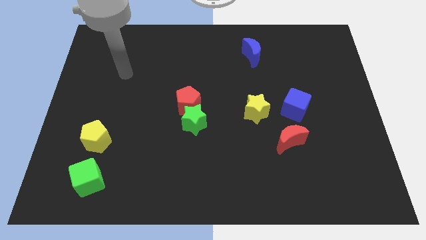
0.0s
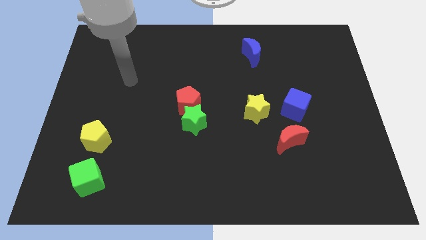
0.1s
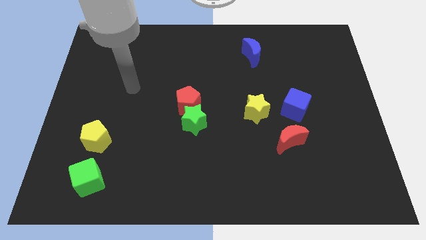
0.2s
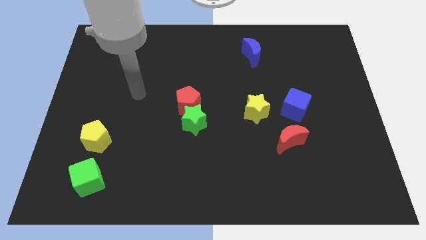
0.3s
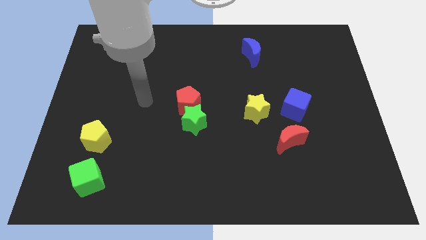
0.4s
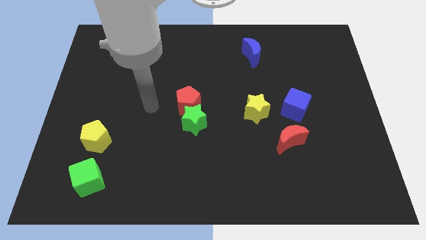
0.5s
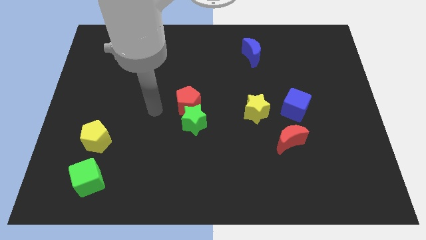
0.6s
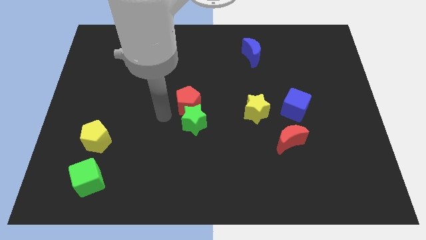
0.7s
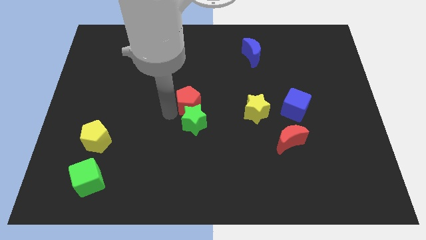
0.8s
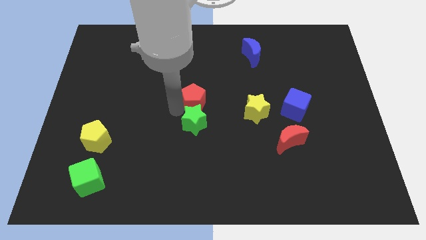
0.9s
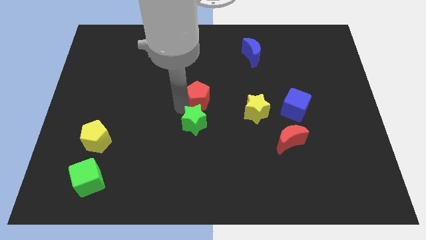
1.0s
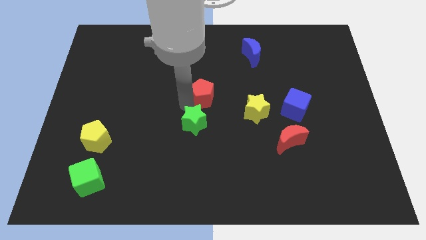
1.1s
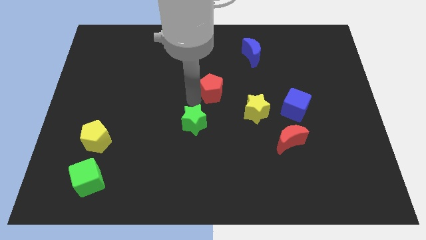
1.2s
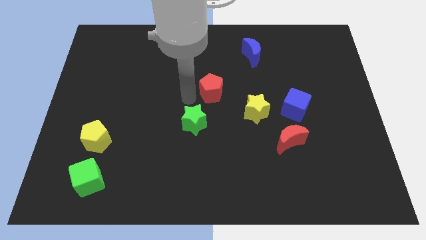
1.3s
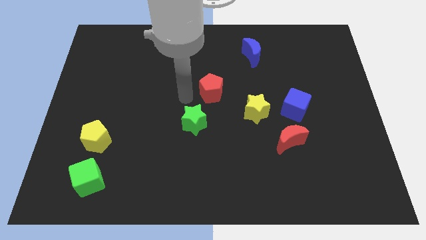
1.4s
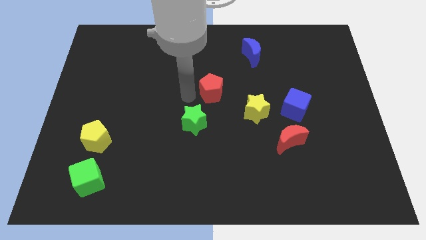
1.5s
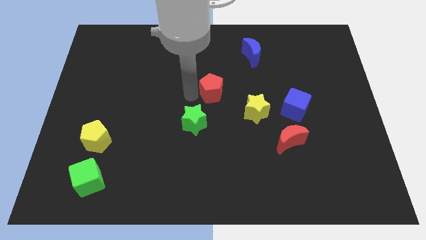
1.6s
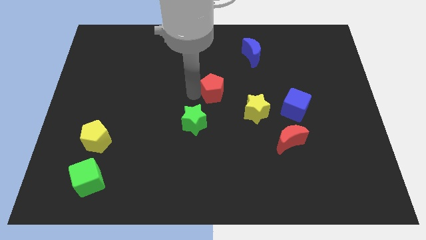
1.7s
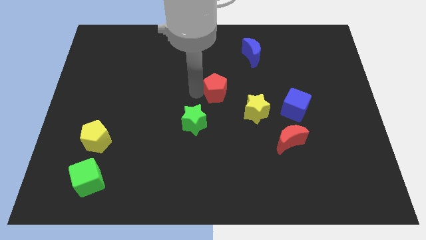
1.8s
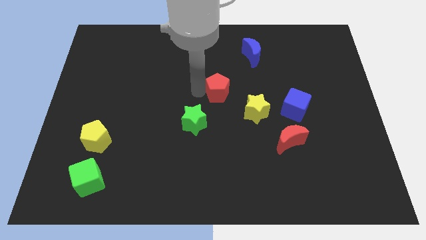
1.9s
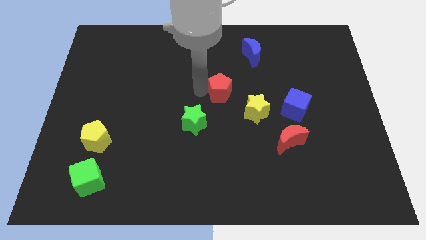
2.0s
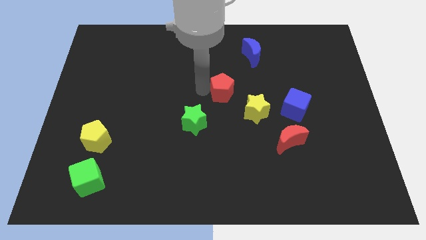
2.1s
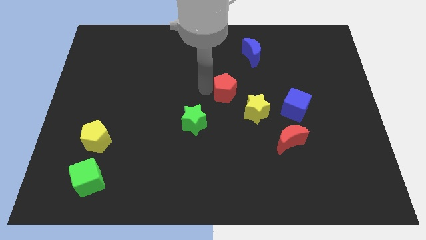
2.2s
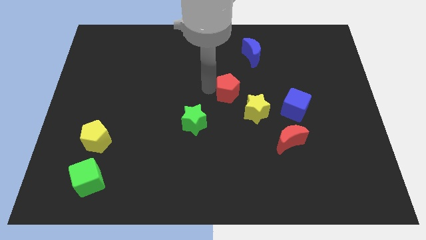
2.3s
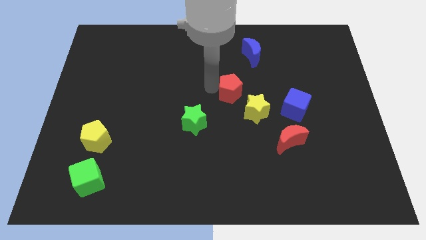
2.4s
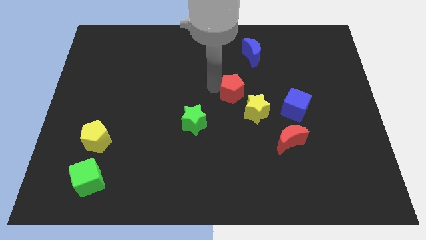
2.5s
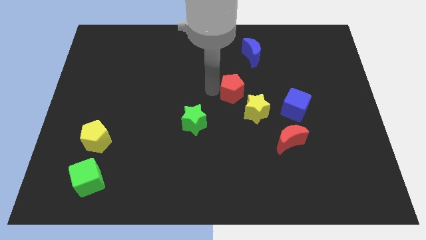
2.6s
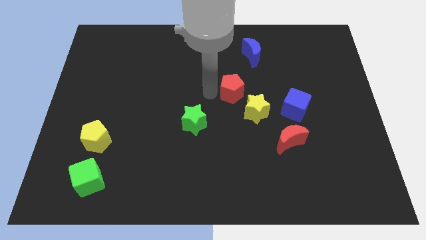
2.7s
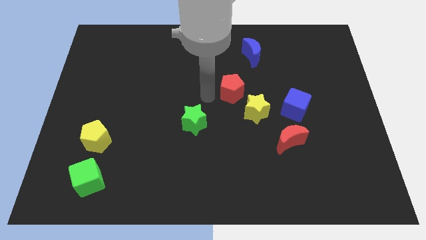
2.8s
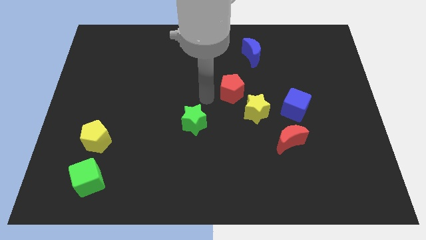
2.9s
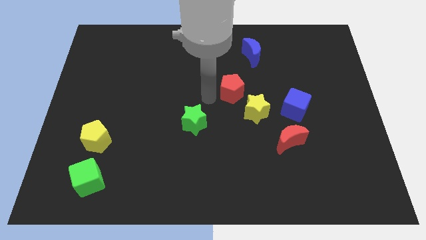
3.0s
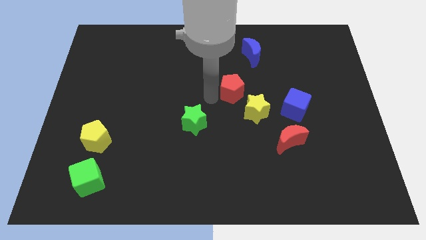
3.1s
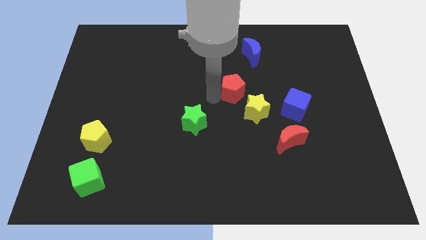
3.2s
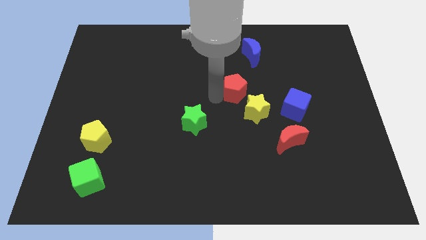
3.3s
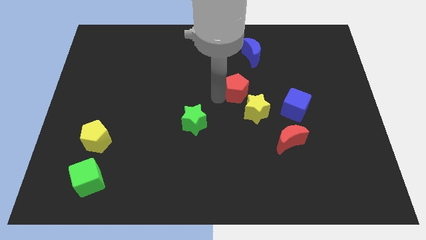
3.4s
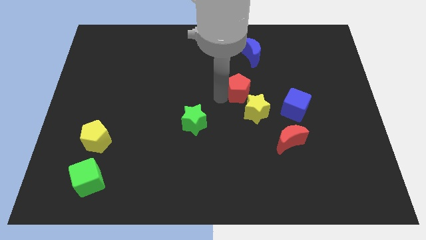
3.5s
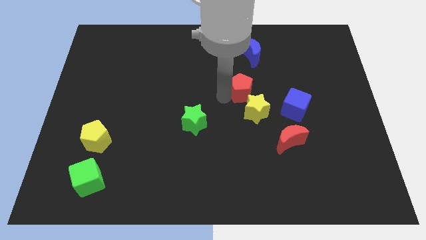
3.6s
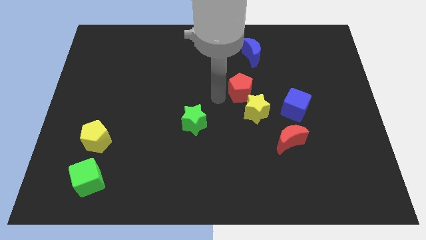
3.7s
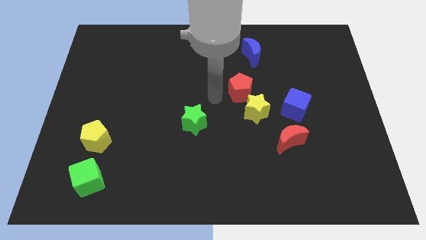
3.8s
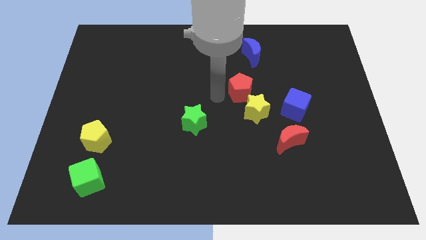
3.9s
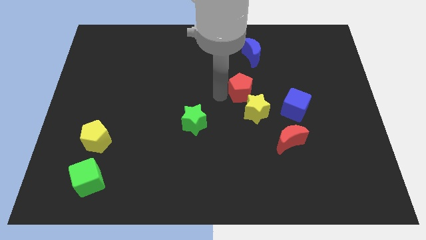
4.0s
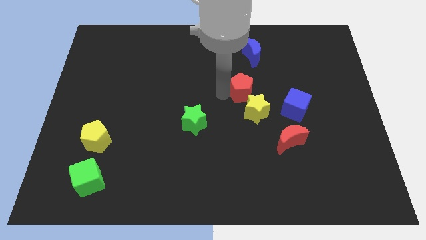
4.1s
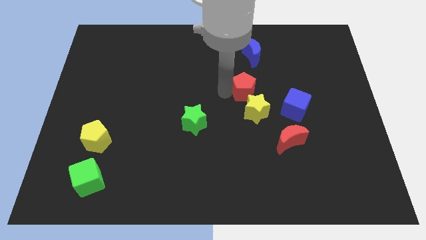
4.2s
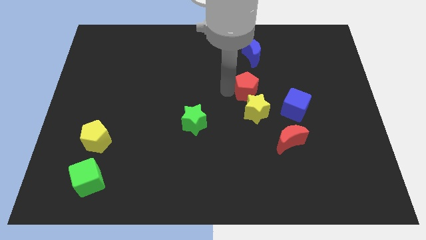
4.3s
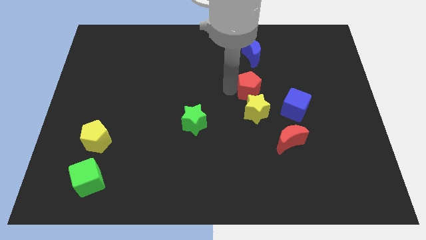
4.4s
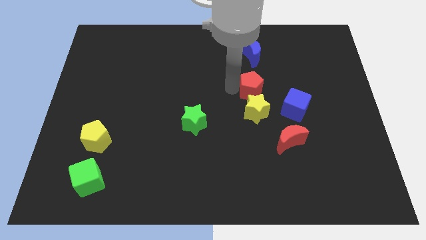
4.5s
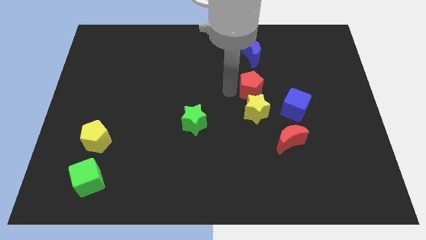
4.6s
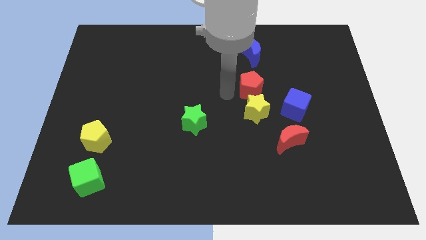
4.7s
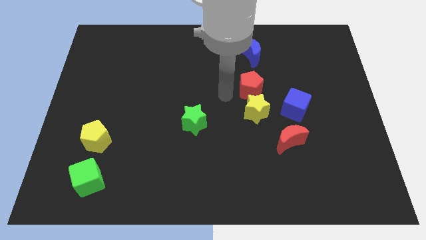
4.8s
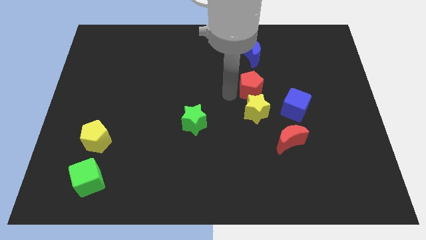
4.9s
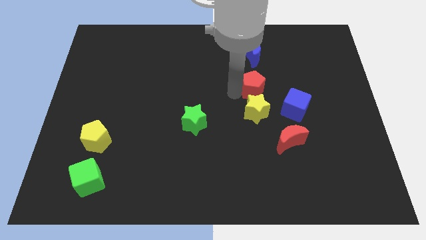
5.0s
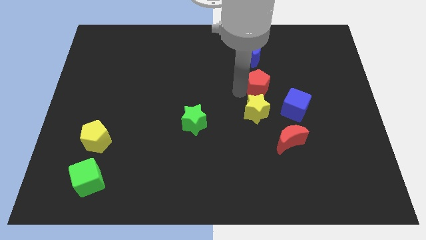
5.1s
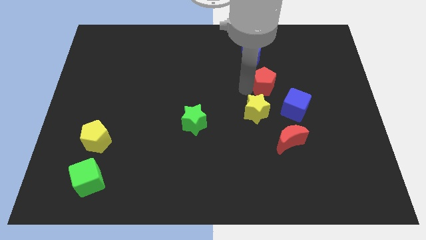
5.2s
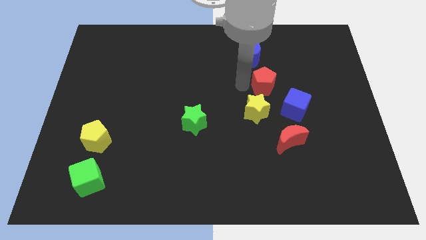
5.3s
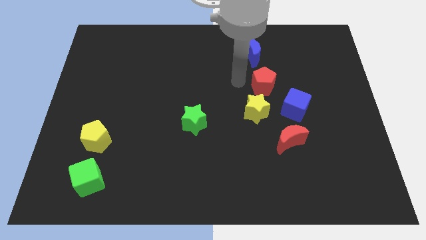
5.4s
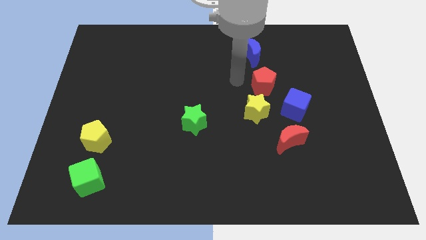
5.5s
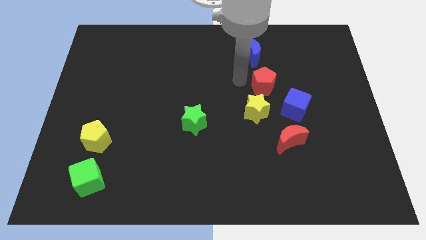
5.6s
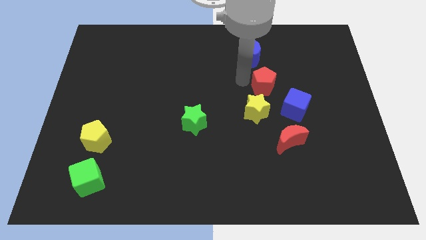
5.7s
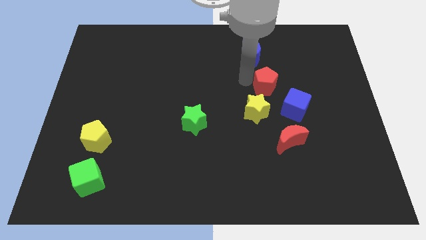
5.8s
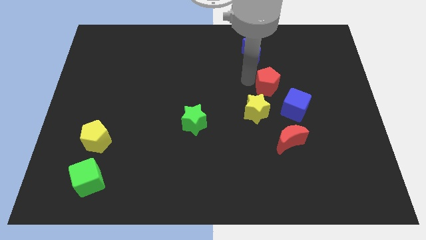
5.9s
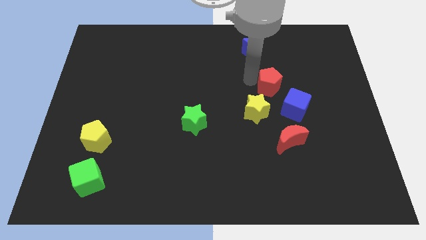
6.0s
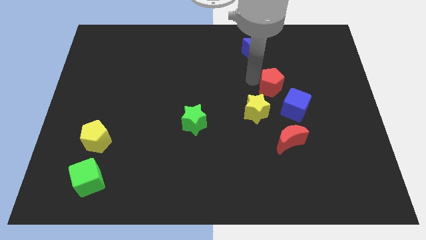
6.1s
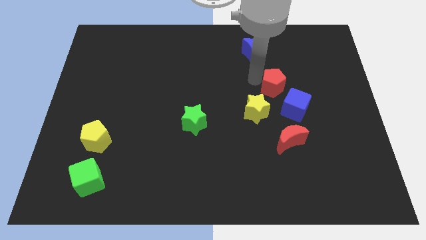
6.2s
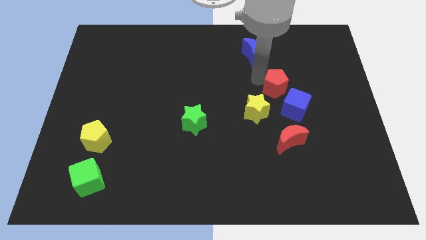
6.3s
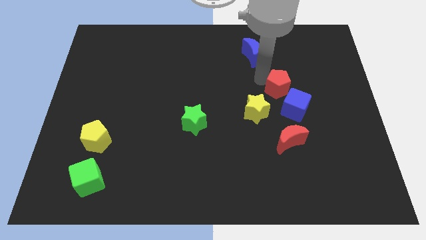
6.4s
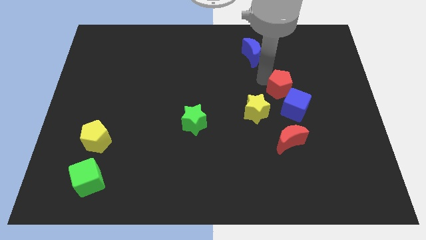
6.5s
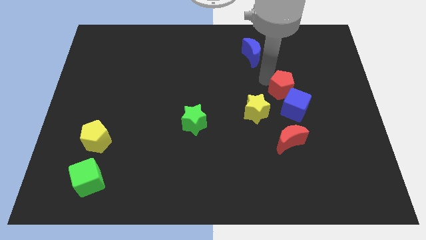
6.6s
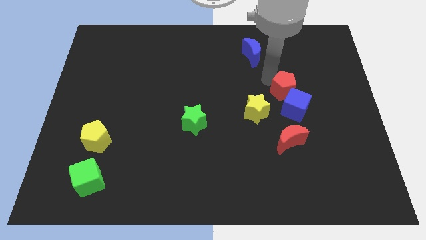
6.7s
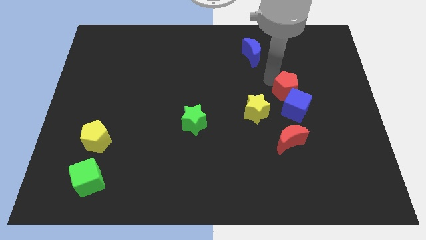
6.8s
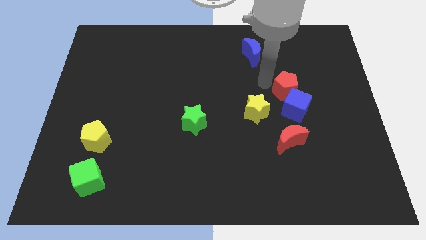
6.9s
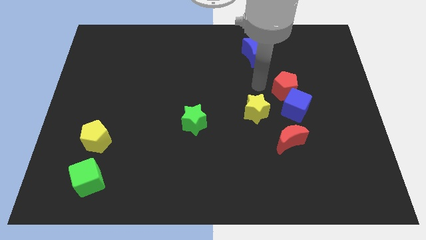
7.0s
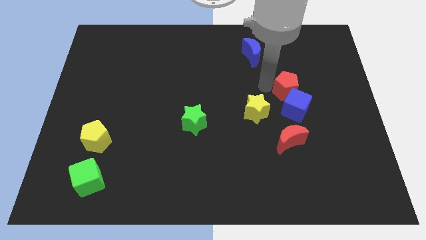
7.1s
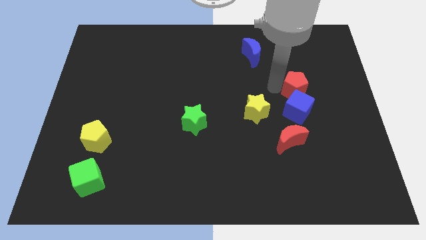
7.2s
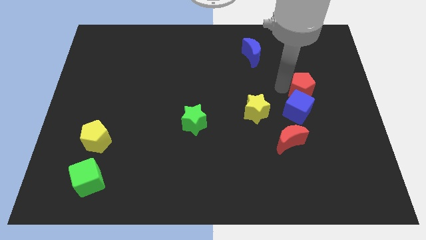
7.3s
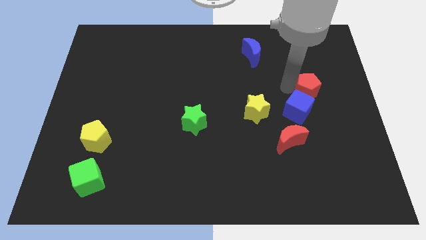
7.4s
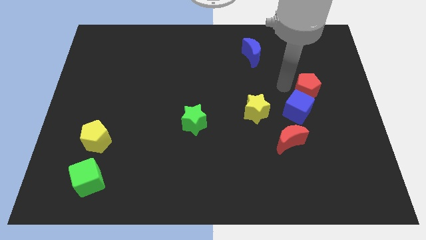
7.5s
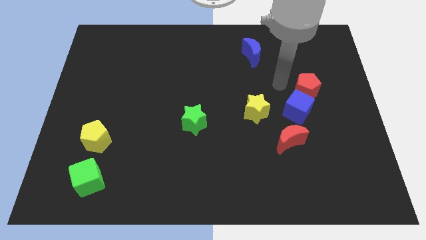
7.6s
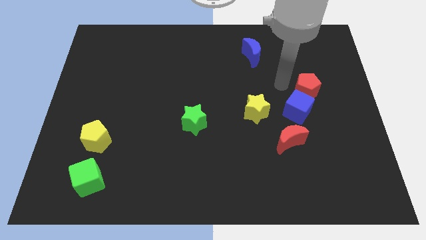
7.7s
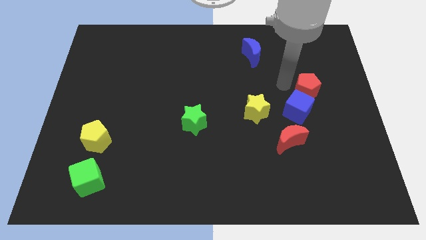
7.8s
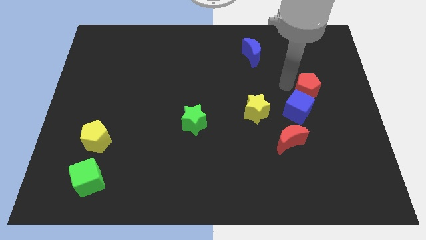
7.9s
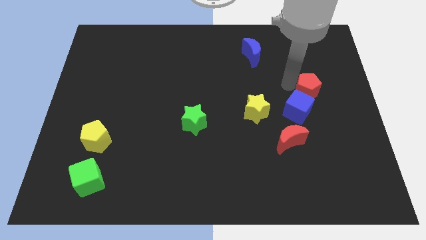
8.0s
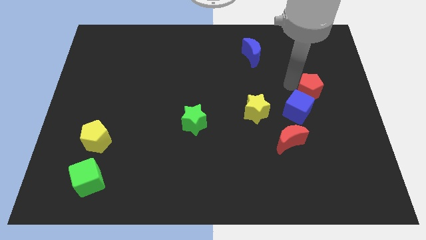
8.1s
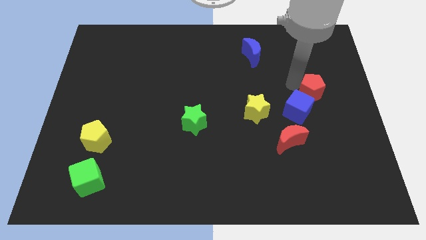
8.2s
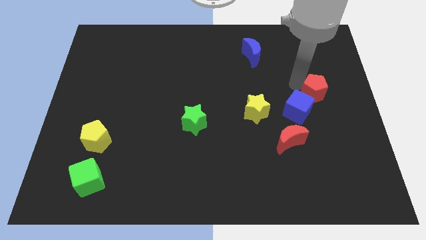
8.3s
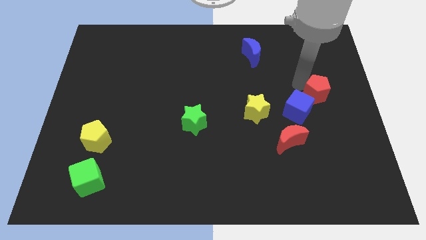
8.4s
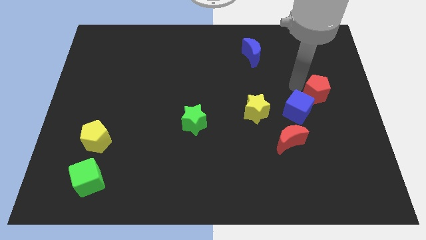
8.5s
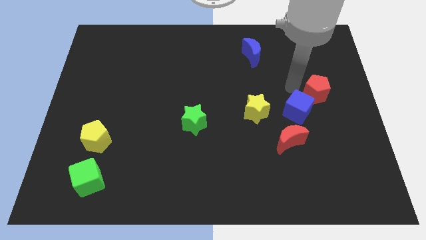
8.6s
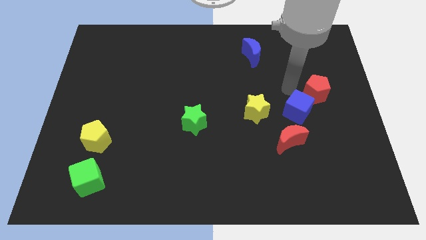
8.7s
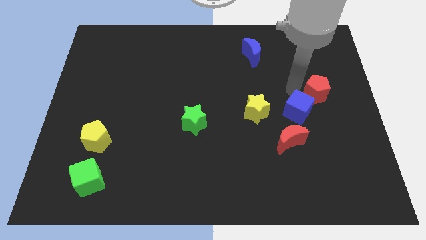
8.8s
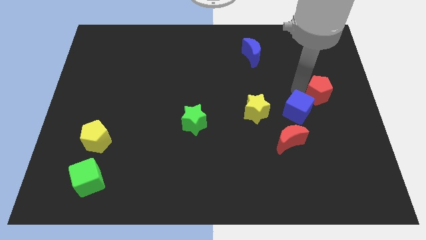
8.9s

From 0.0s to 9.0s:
push the red pentagon to the right side
